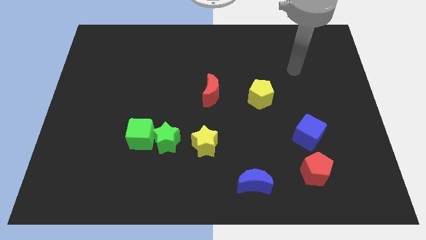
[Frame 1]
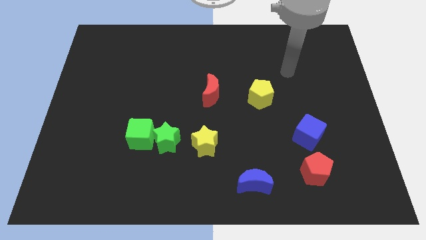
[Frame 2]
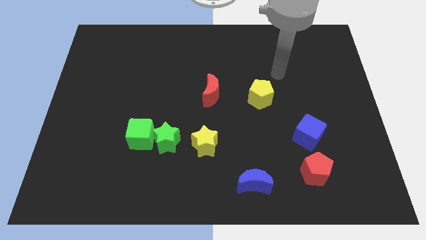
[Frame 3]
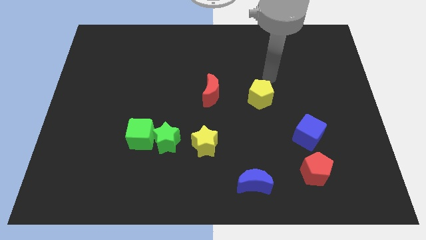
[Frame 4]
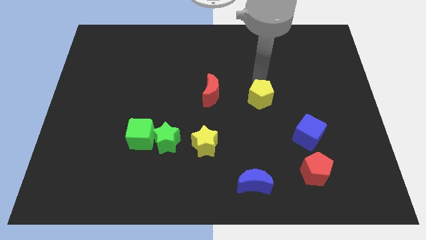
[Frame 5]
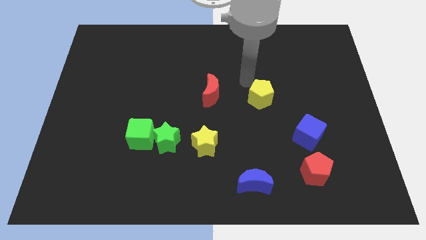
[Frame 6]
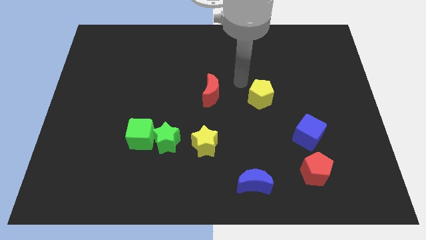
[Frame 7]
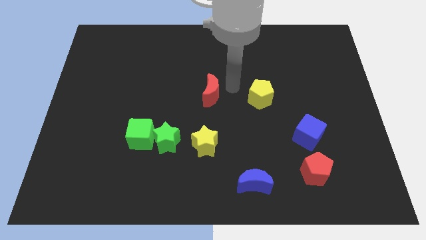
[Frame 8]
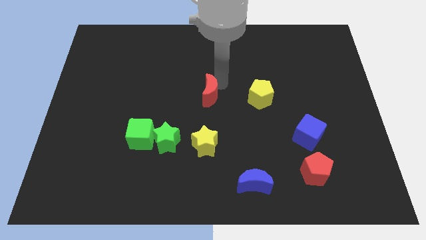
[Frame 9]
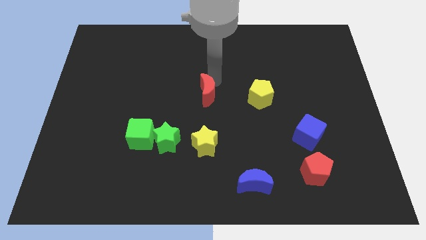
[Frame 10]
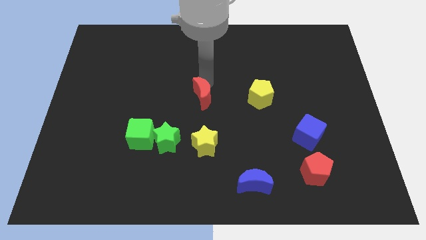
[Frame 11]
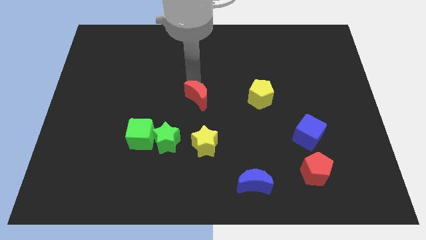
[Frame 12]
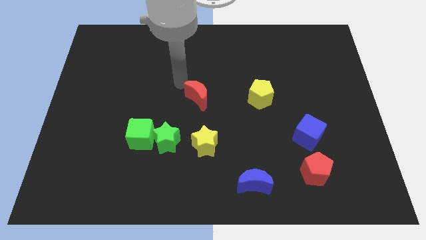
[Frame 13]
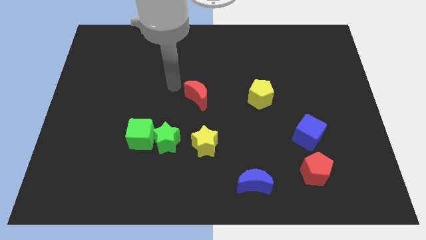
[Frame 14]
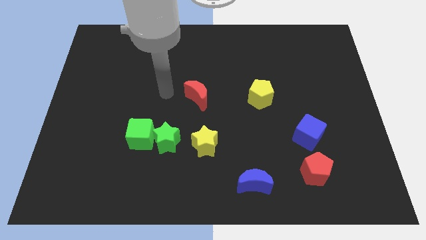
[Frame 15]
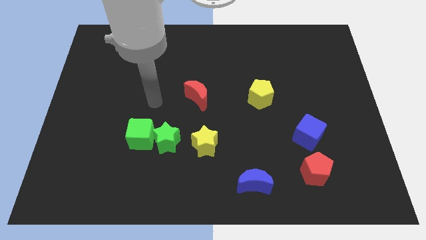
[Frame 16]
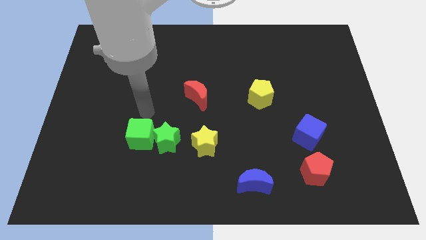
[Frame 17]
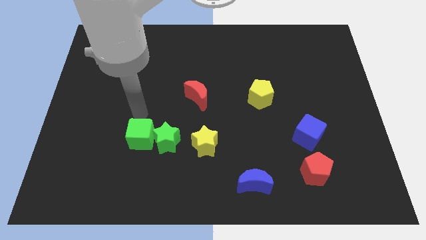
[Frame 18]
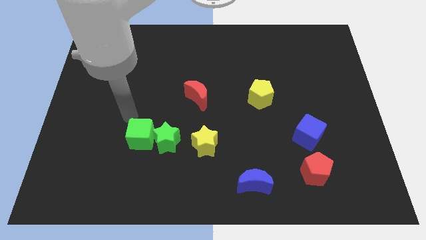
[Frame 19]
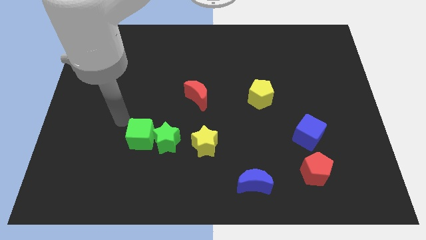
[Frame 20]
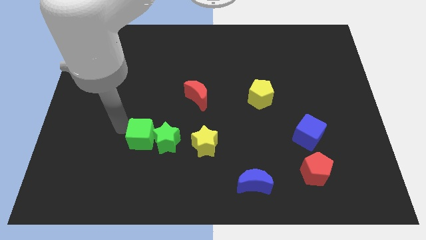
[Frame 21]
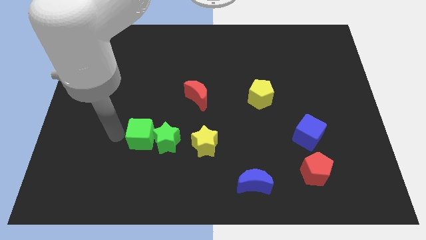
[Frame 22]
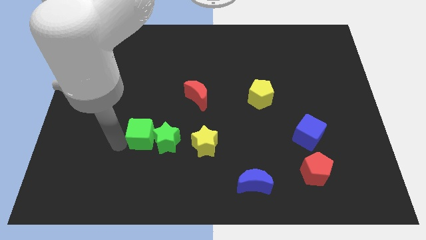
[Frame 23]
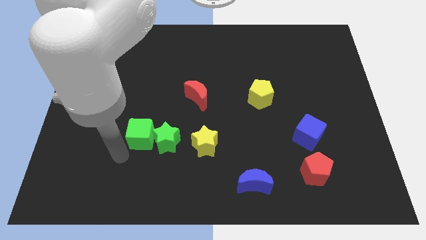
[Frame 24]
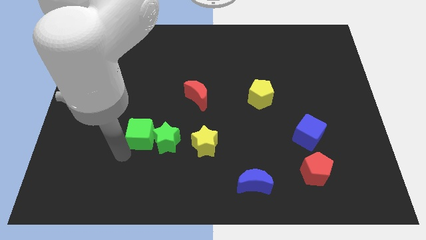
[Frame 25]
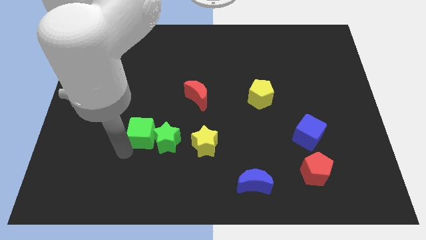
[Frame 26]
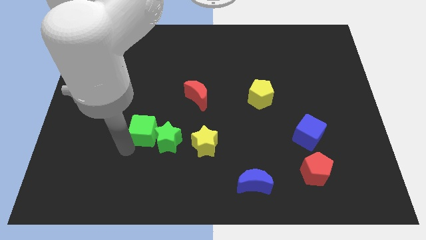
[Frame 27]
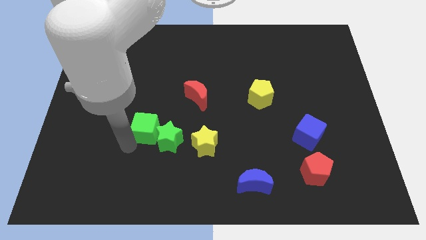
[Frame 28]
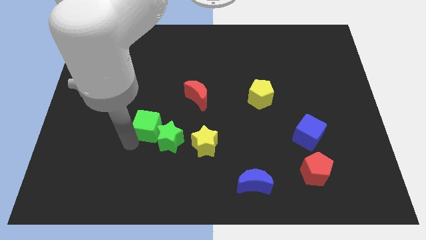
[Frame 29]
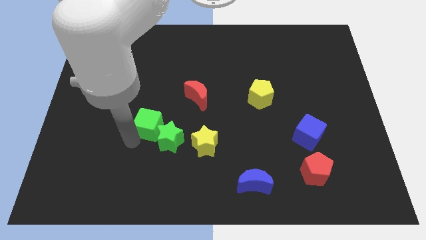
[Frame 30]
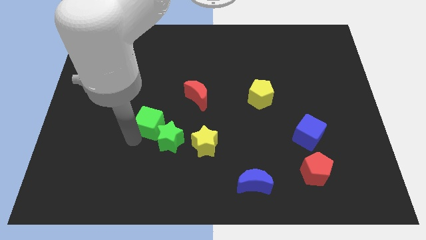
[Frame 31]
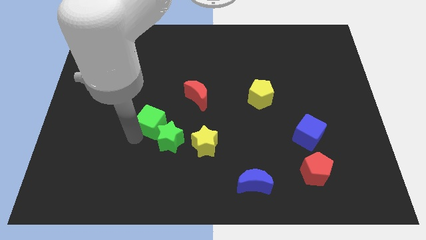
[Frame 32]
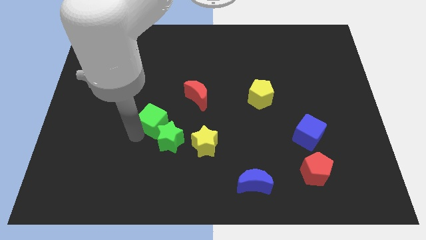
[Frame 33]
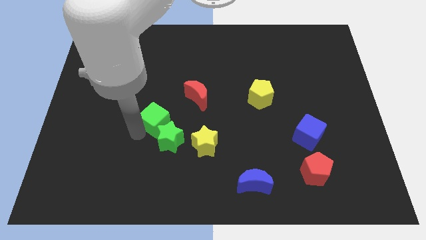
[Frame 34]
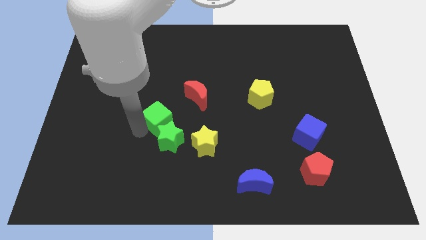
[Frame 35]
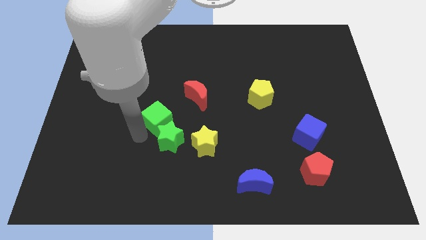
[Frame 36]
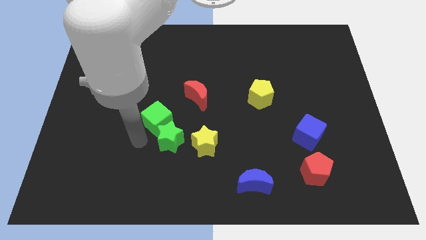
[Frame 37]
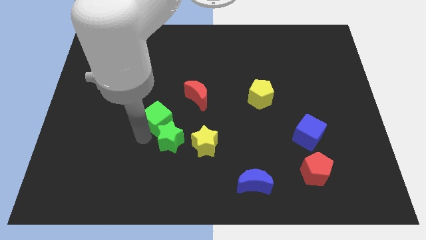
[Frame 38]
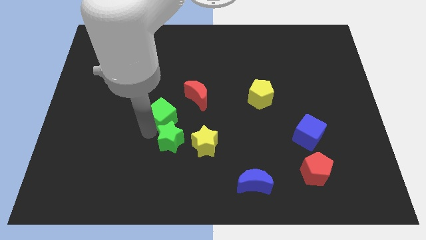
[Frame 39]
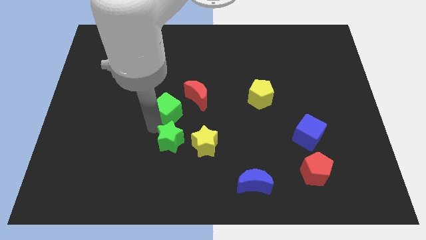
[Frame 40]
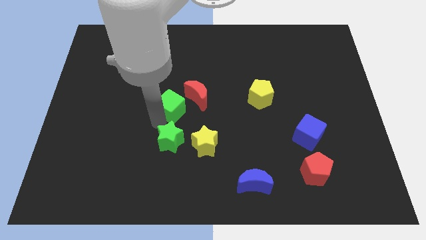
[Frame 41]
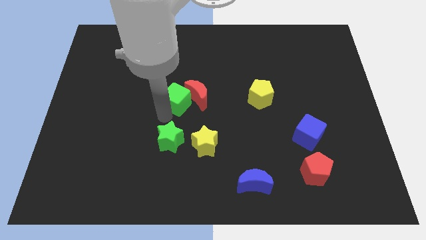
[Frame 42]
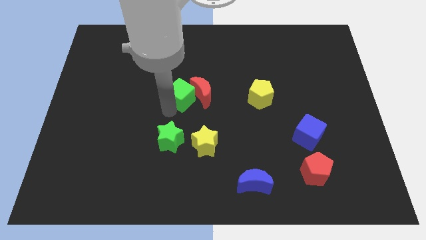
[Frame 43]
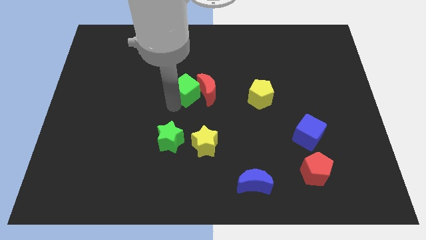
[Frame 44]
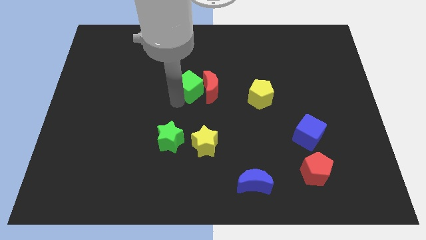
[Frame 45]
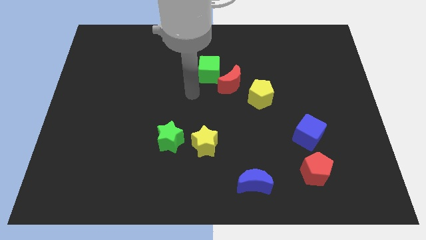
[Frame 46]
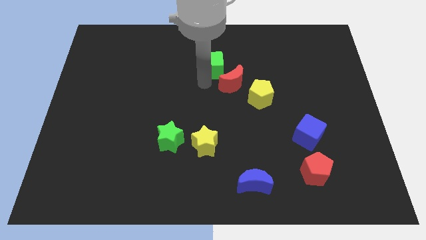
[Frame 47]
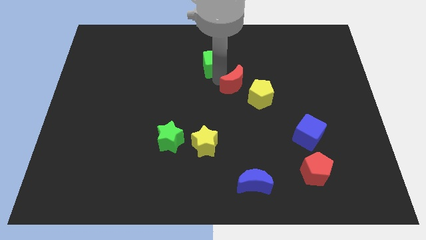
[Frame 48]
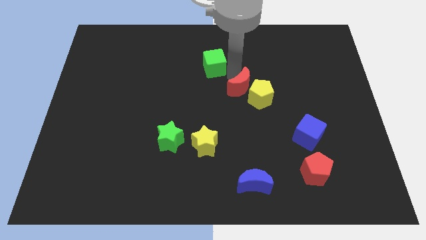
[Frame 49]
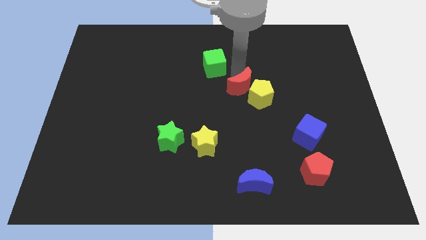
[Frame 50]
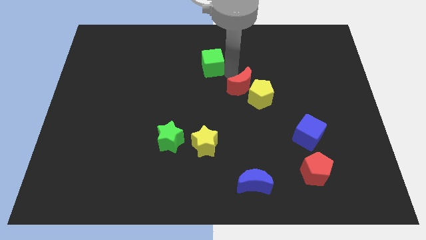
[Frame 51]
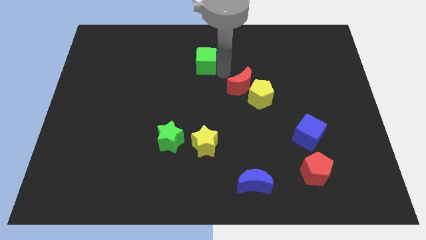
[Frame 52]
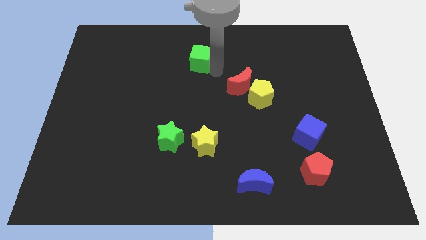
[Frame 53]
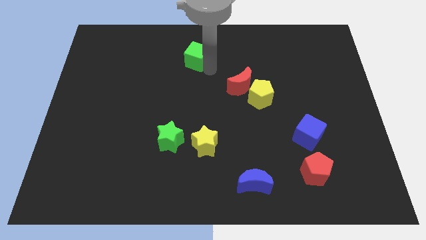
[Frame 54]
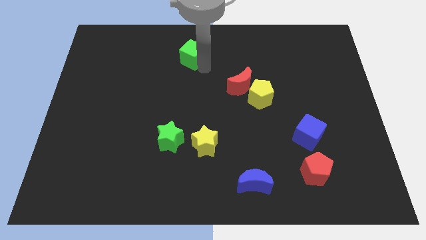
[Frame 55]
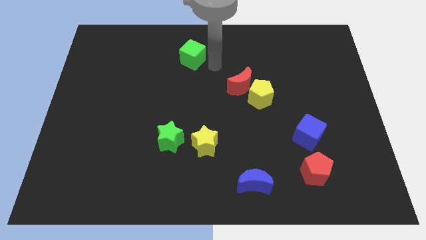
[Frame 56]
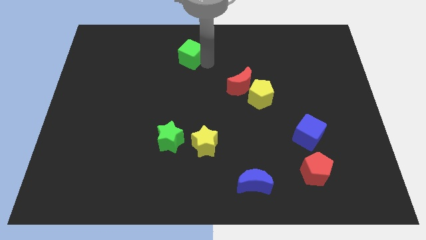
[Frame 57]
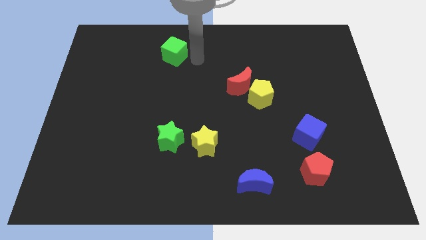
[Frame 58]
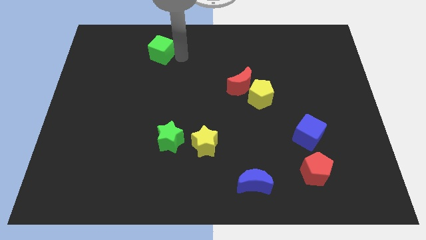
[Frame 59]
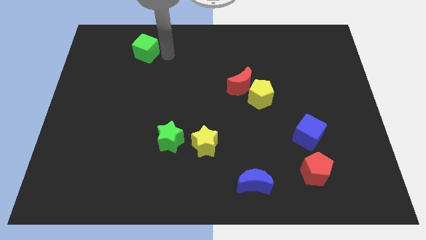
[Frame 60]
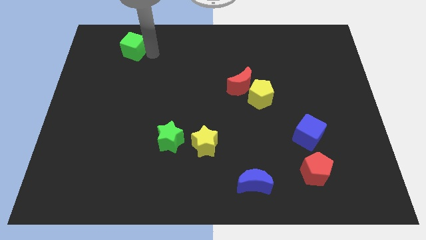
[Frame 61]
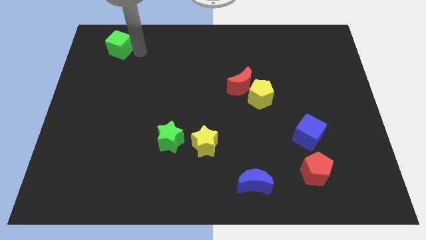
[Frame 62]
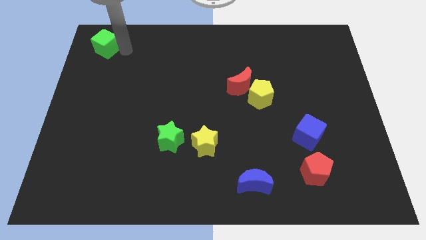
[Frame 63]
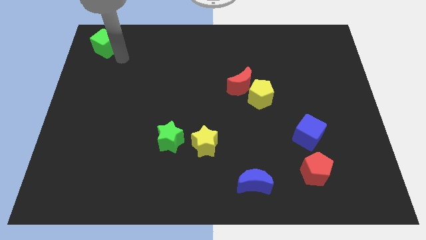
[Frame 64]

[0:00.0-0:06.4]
push the green cube to the top left of the board
